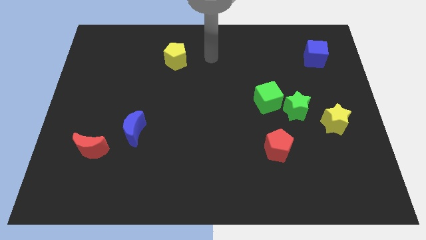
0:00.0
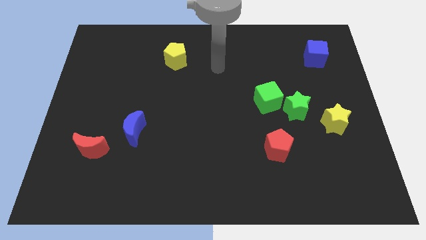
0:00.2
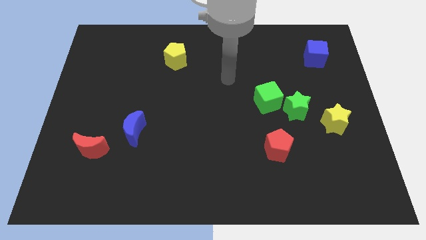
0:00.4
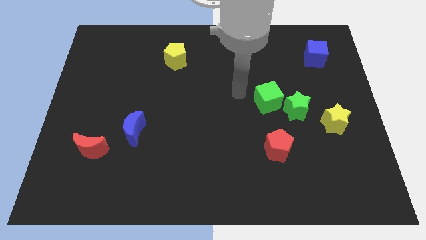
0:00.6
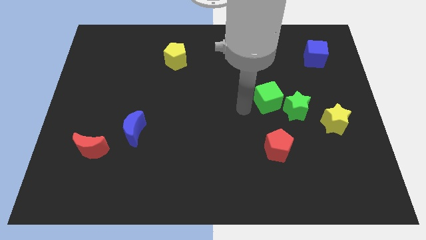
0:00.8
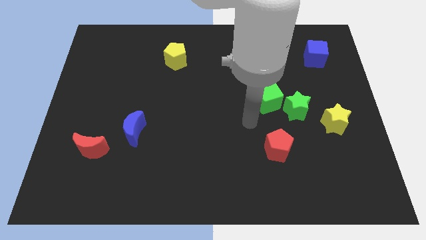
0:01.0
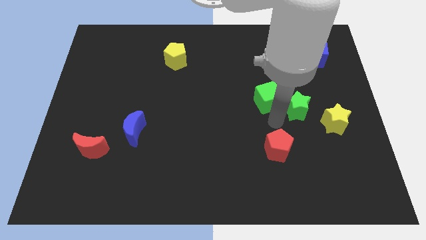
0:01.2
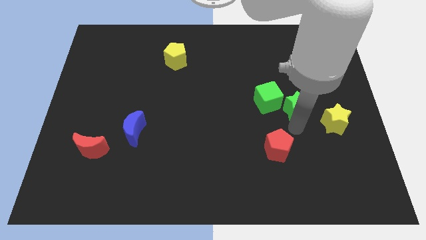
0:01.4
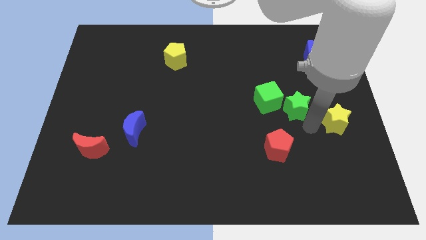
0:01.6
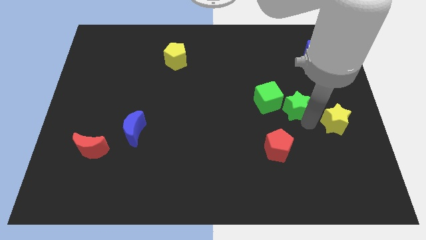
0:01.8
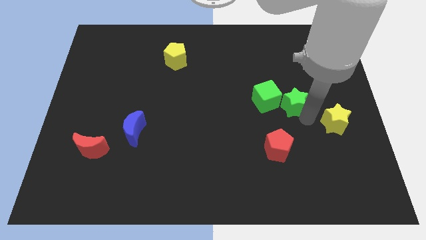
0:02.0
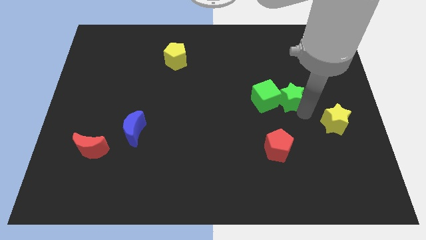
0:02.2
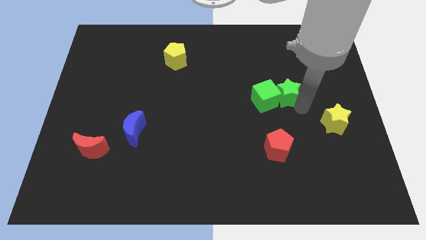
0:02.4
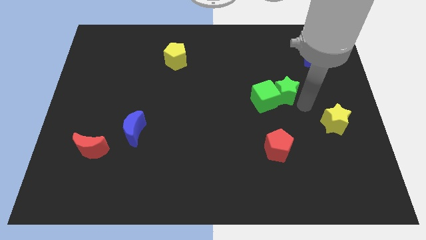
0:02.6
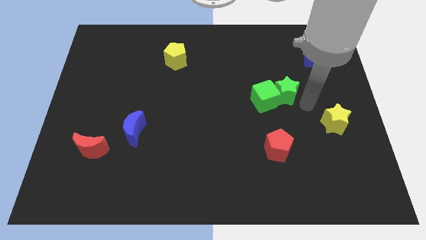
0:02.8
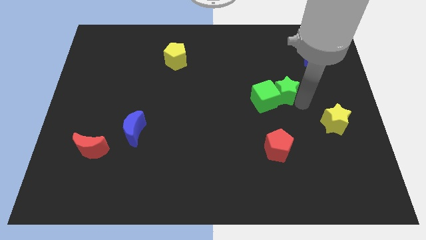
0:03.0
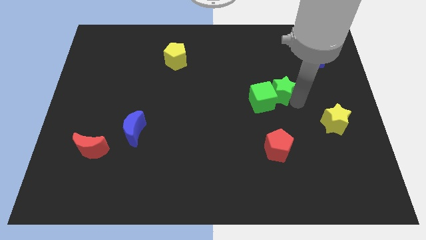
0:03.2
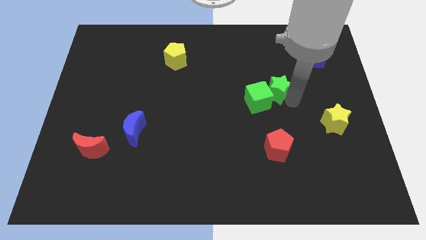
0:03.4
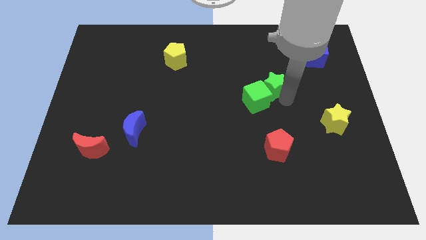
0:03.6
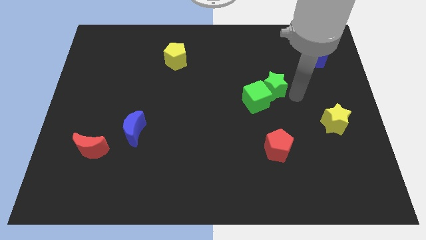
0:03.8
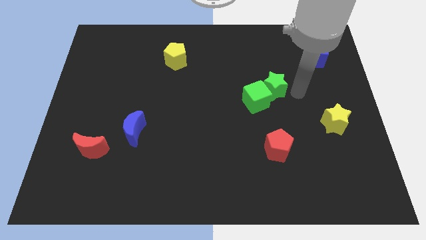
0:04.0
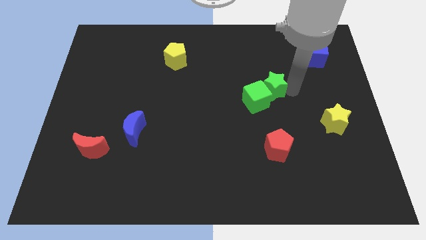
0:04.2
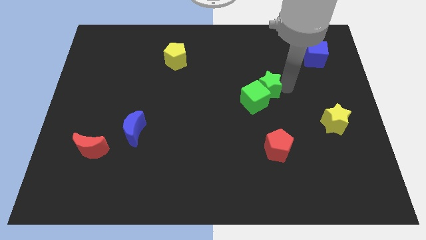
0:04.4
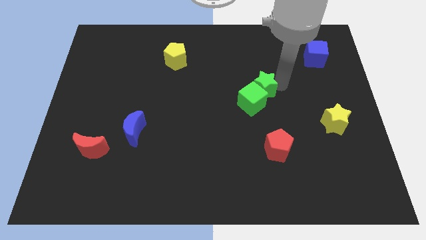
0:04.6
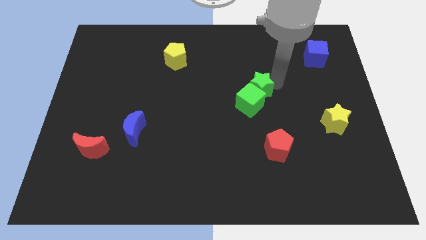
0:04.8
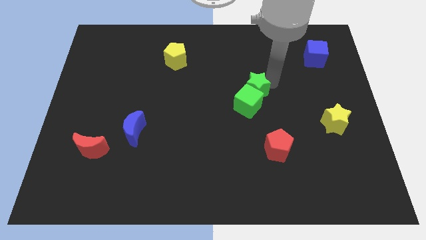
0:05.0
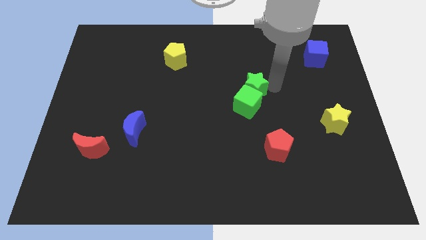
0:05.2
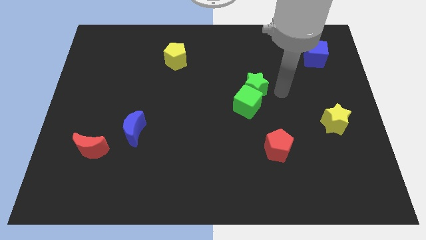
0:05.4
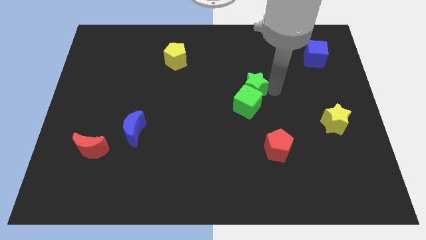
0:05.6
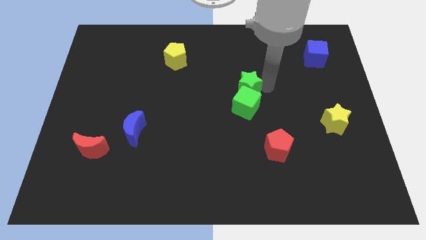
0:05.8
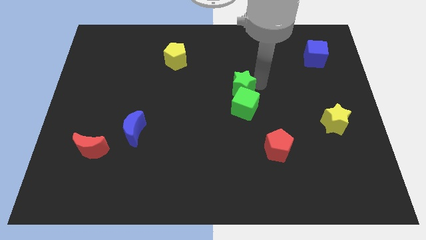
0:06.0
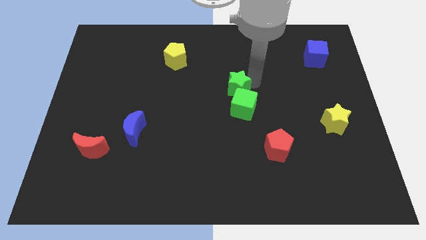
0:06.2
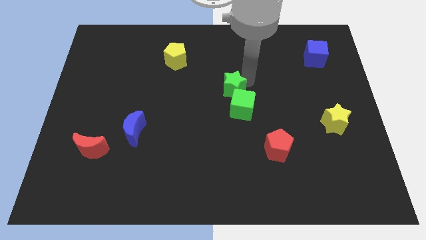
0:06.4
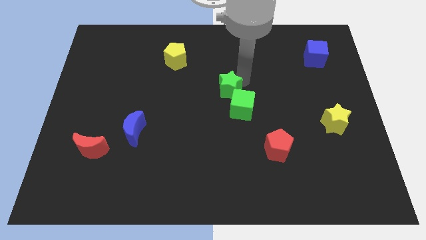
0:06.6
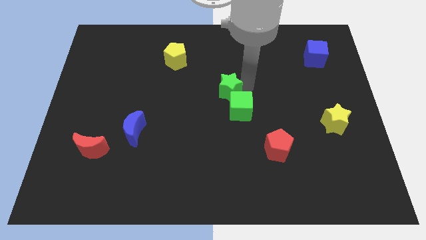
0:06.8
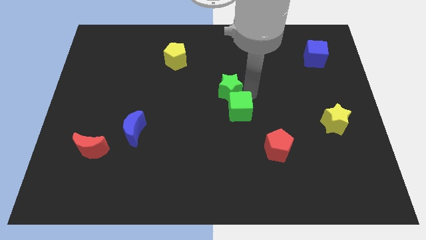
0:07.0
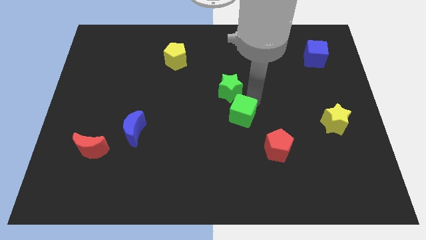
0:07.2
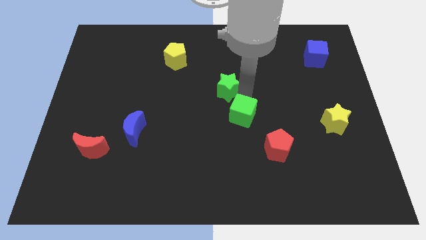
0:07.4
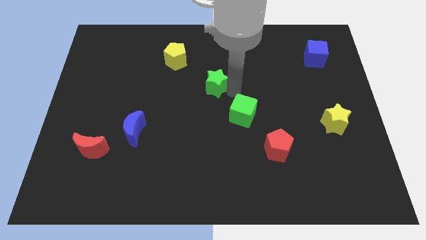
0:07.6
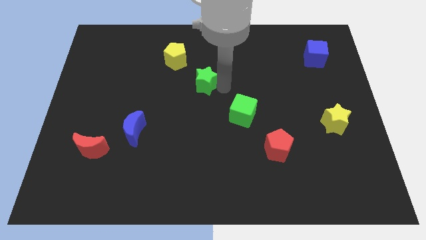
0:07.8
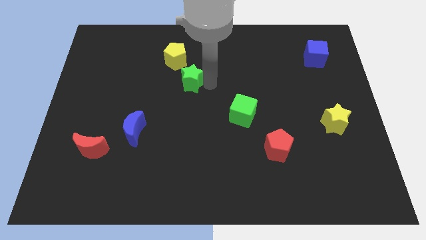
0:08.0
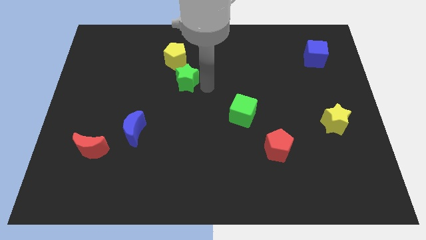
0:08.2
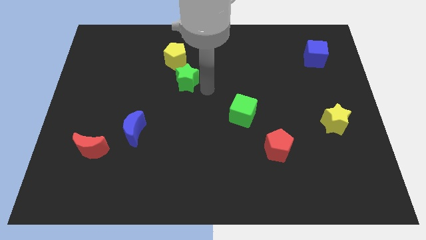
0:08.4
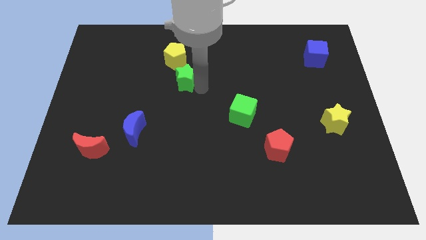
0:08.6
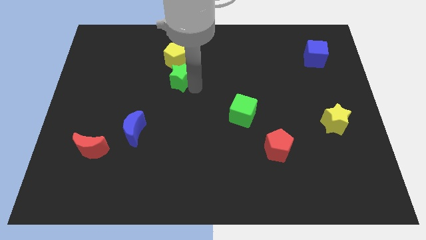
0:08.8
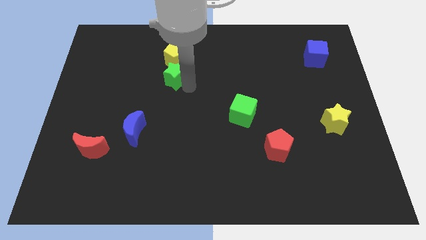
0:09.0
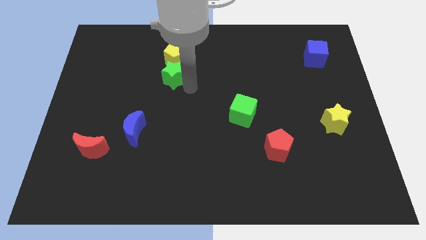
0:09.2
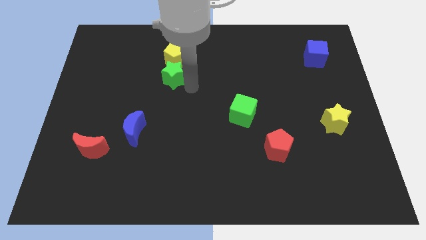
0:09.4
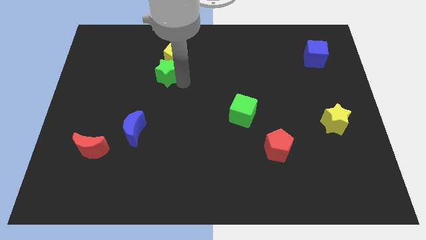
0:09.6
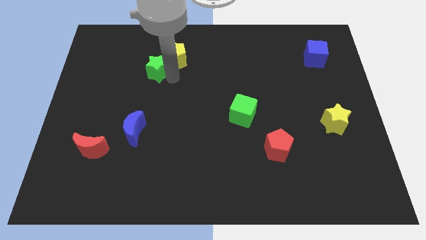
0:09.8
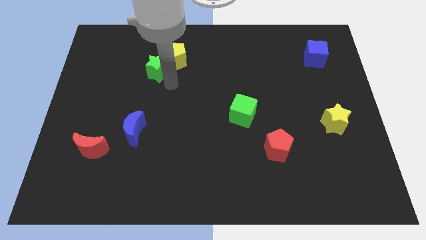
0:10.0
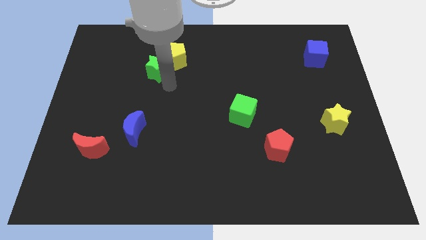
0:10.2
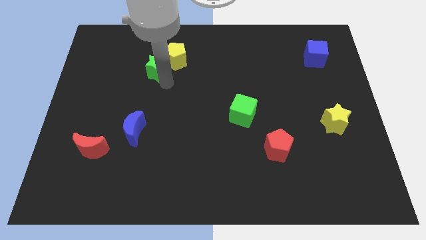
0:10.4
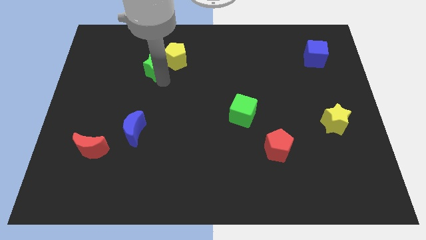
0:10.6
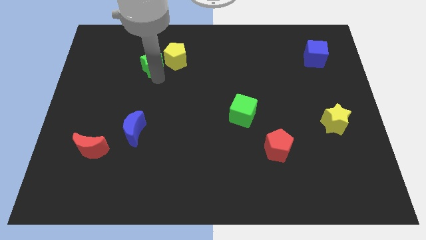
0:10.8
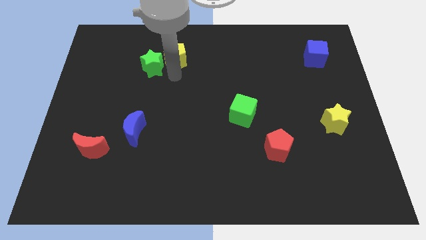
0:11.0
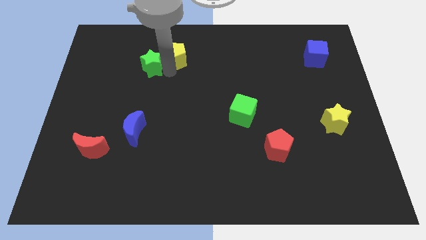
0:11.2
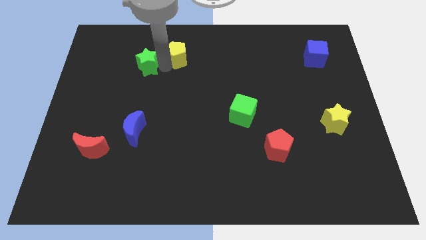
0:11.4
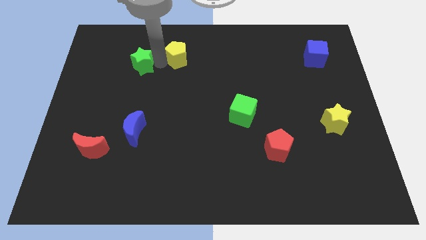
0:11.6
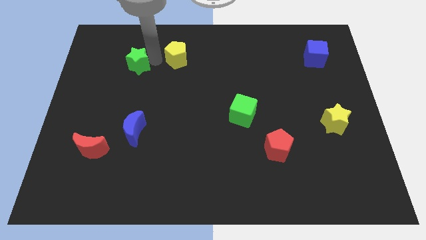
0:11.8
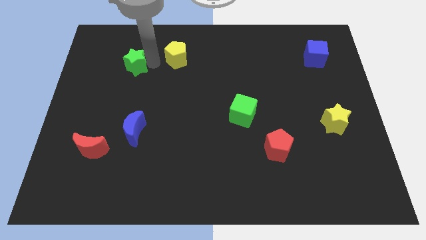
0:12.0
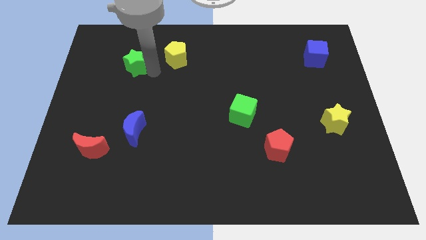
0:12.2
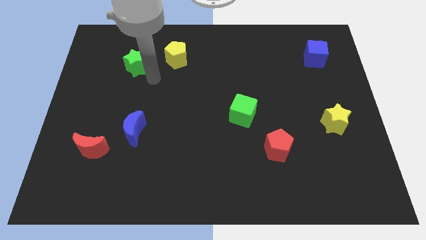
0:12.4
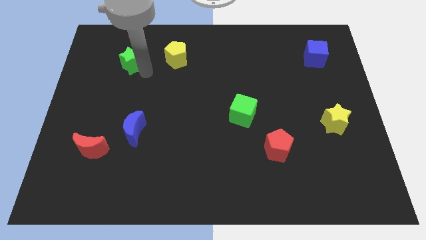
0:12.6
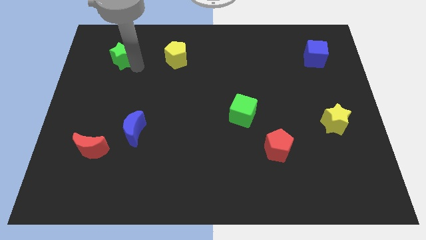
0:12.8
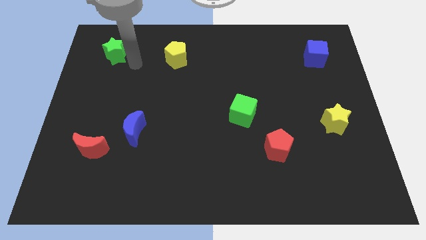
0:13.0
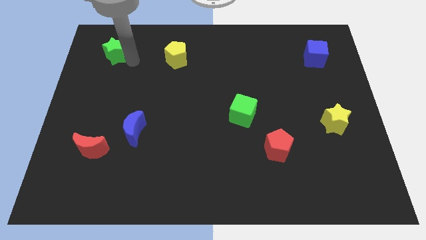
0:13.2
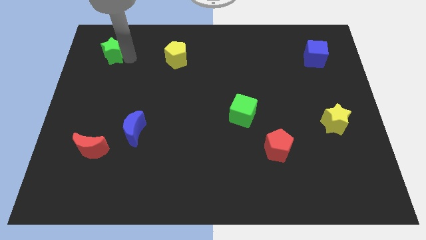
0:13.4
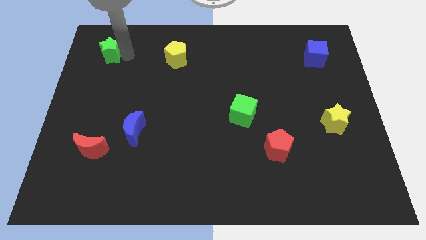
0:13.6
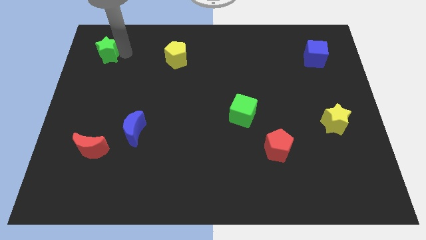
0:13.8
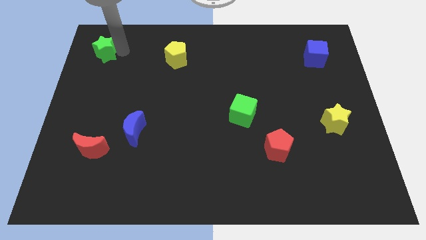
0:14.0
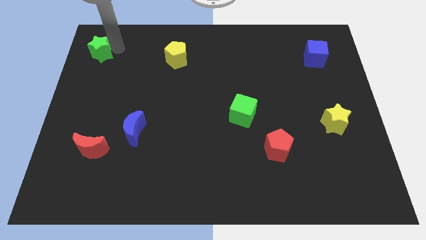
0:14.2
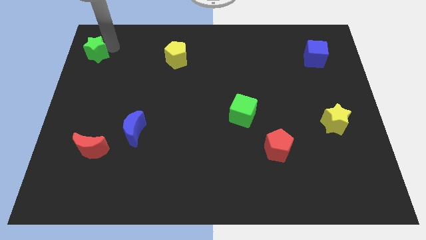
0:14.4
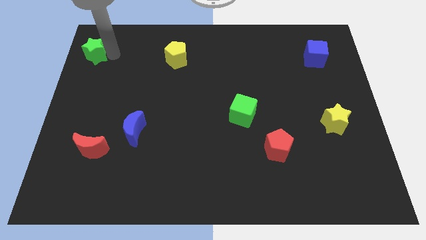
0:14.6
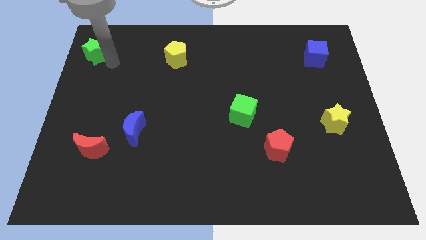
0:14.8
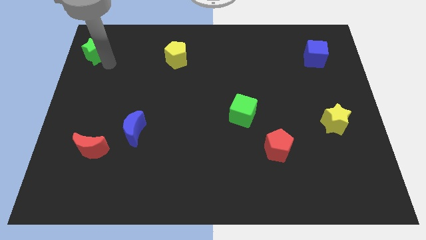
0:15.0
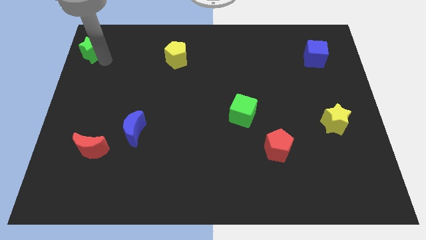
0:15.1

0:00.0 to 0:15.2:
push the green star to the top left corner
